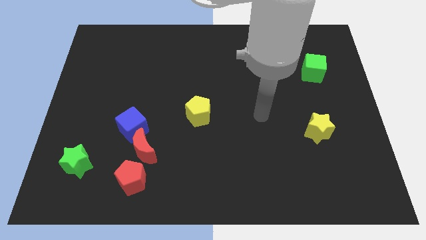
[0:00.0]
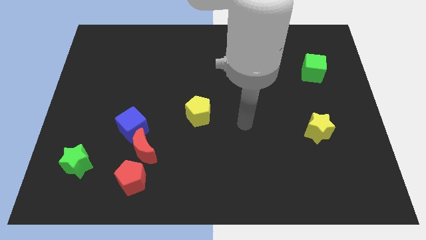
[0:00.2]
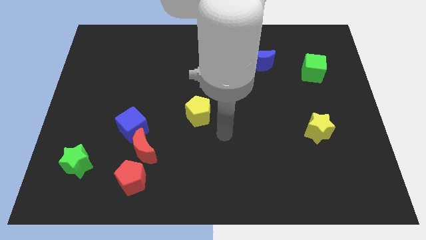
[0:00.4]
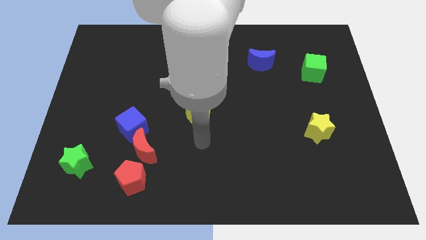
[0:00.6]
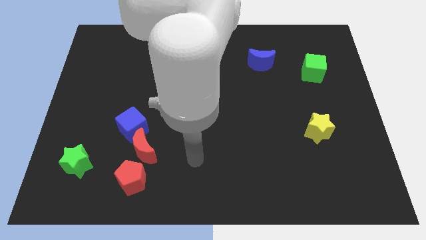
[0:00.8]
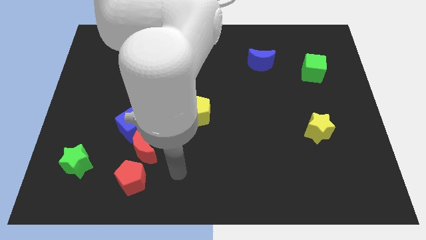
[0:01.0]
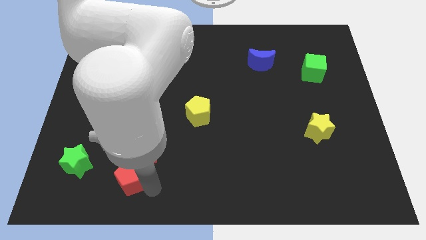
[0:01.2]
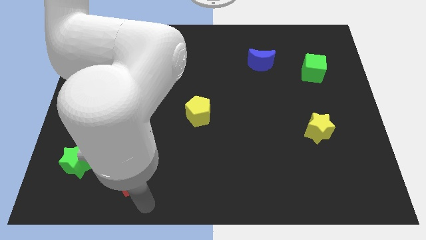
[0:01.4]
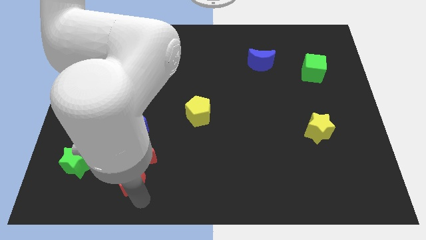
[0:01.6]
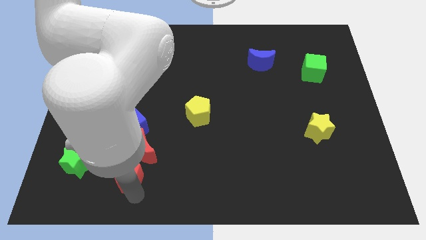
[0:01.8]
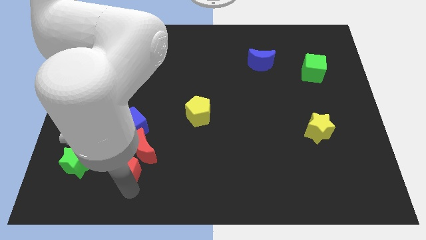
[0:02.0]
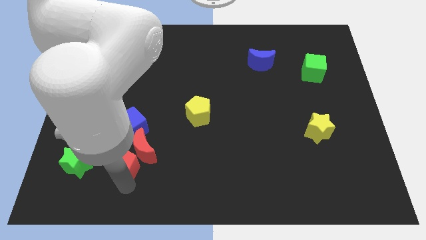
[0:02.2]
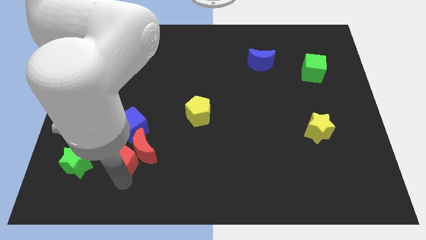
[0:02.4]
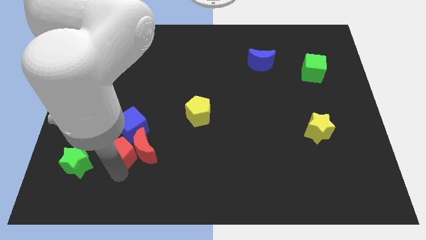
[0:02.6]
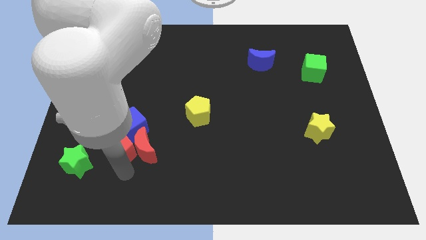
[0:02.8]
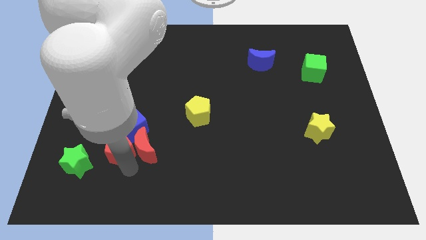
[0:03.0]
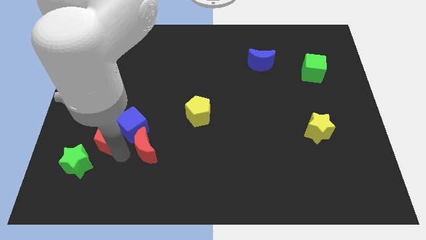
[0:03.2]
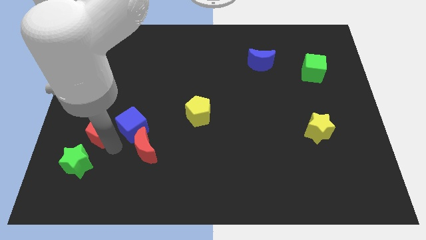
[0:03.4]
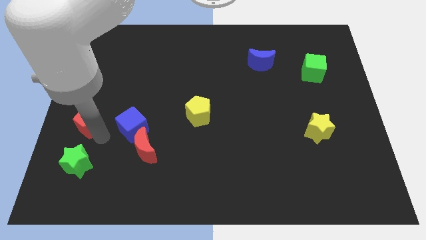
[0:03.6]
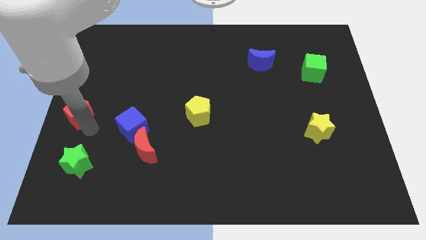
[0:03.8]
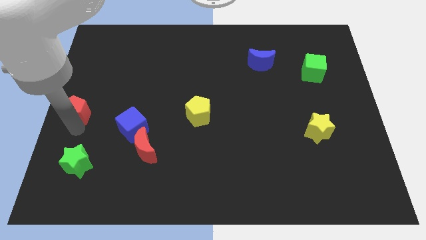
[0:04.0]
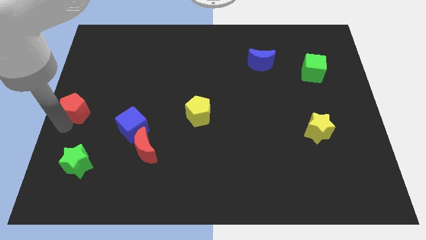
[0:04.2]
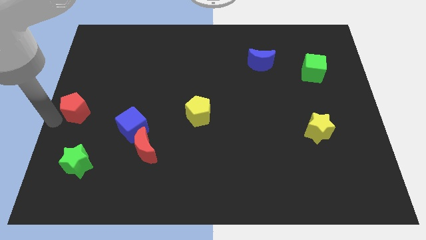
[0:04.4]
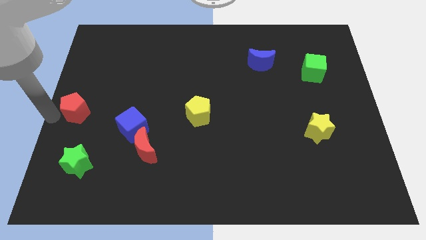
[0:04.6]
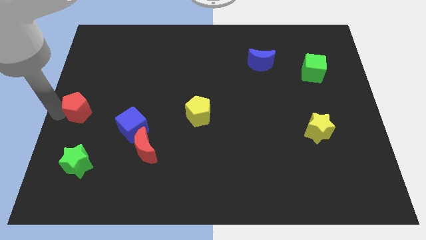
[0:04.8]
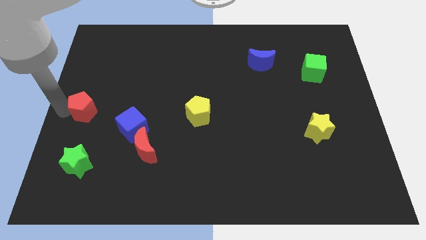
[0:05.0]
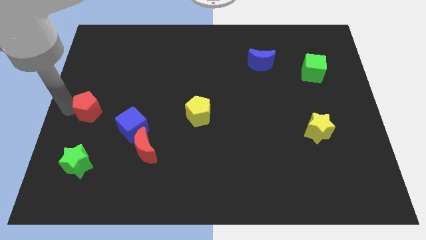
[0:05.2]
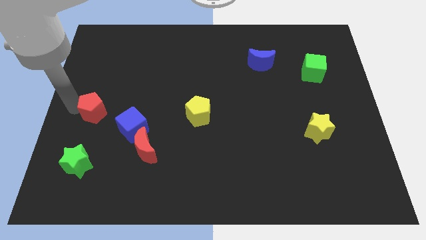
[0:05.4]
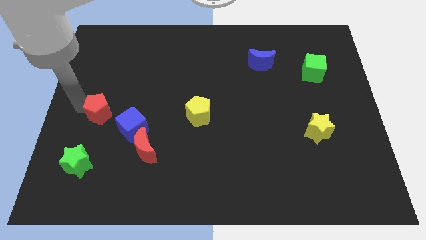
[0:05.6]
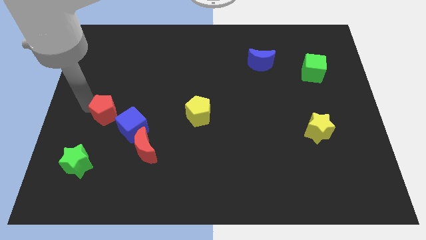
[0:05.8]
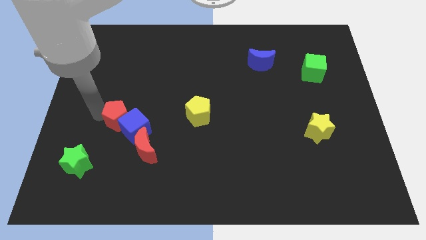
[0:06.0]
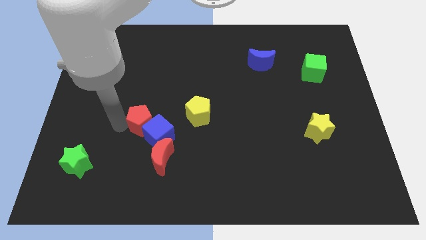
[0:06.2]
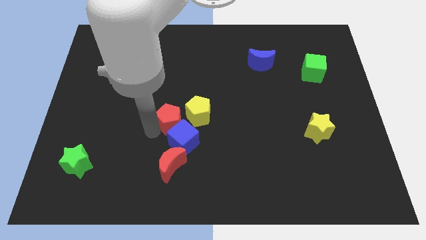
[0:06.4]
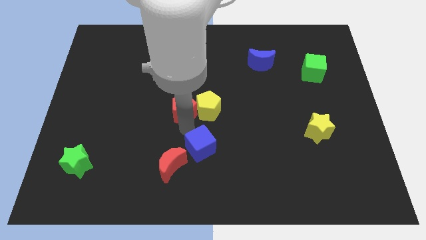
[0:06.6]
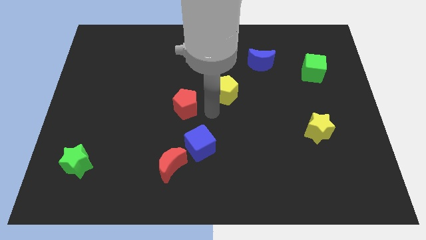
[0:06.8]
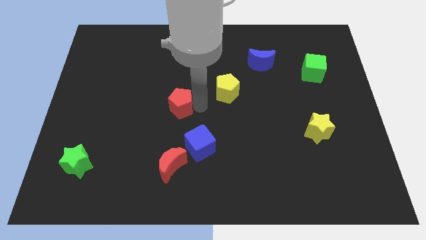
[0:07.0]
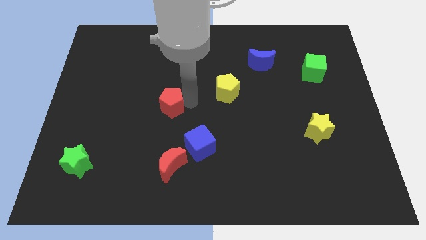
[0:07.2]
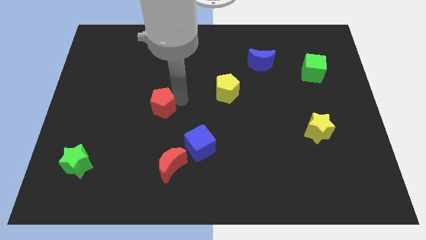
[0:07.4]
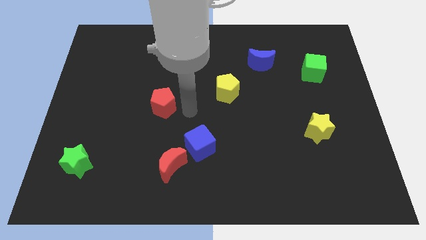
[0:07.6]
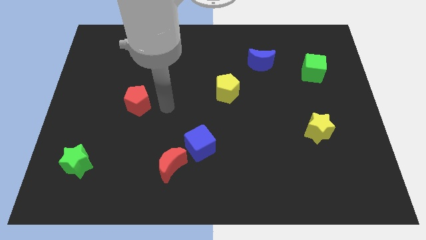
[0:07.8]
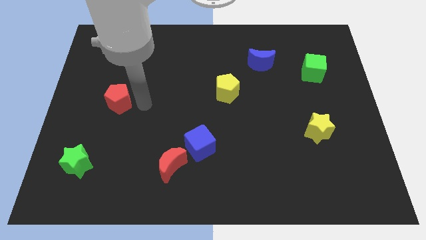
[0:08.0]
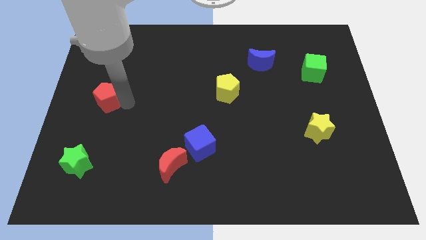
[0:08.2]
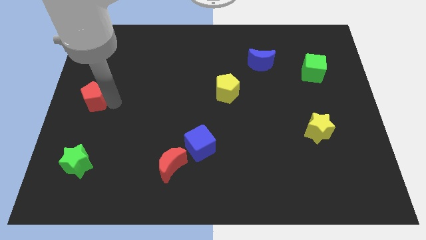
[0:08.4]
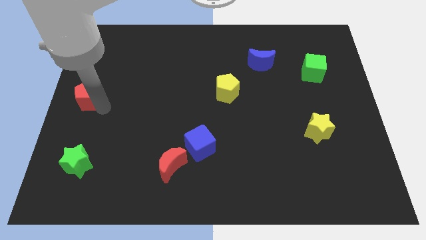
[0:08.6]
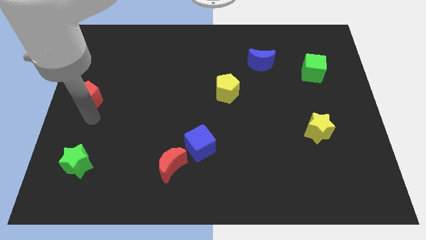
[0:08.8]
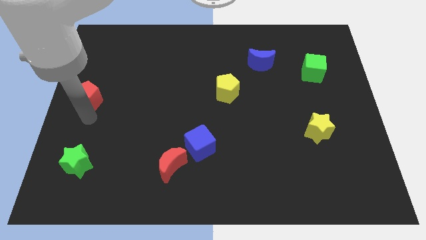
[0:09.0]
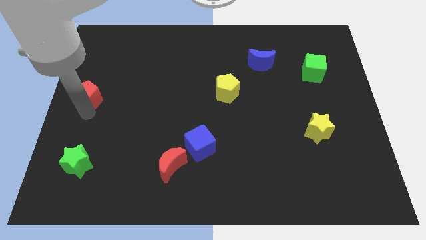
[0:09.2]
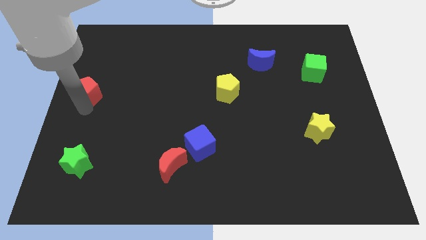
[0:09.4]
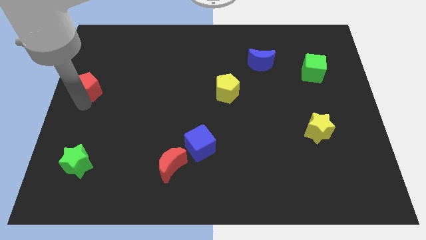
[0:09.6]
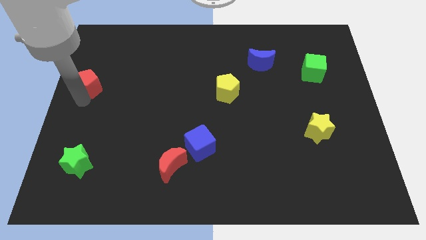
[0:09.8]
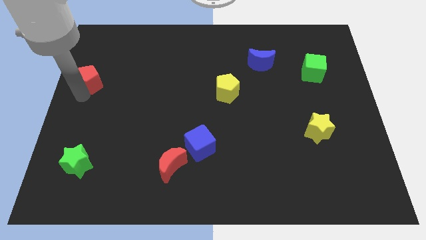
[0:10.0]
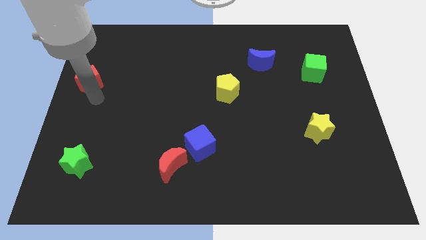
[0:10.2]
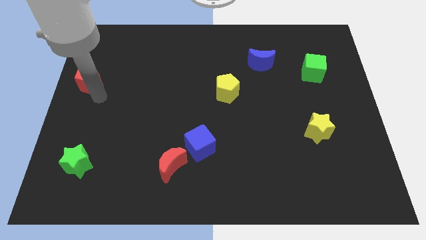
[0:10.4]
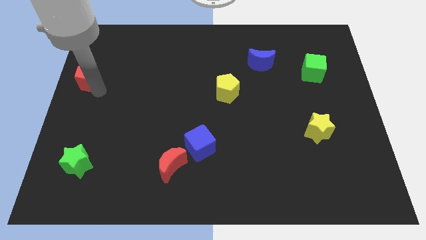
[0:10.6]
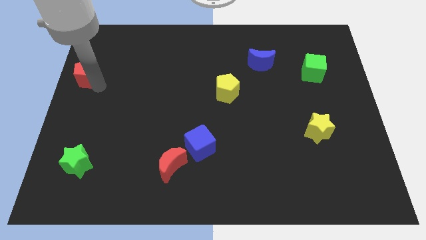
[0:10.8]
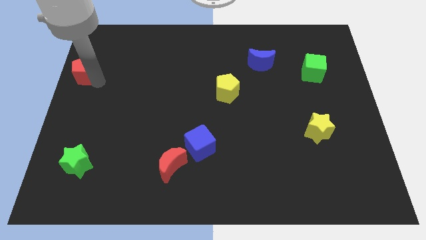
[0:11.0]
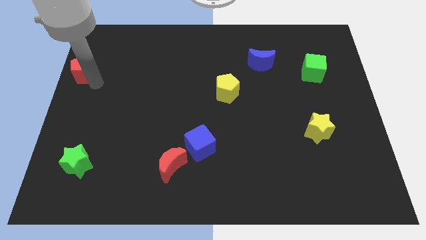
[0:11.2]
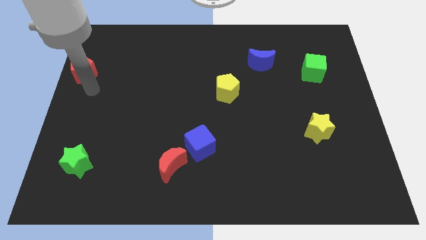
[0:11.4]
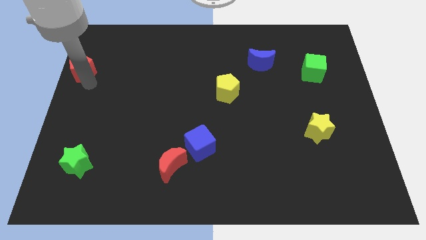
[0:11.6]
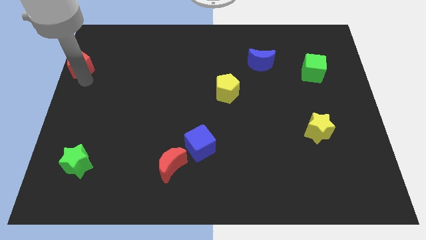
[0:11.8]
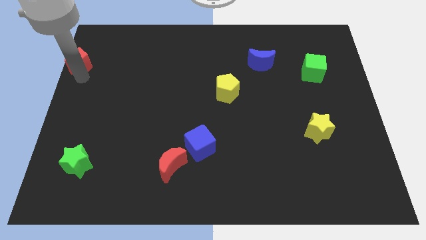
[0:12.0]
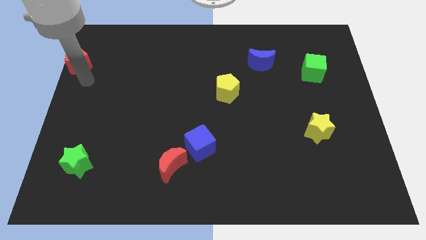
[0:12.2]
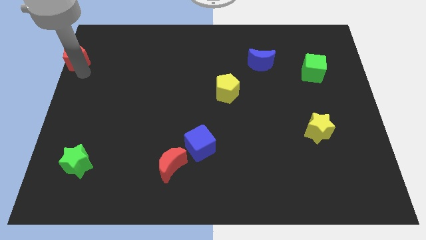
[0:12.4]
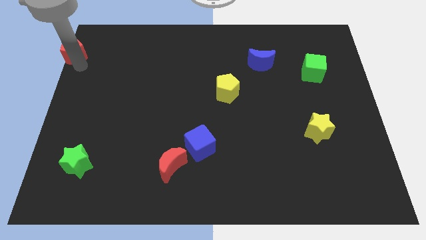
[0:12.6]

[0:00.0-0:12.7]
put the red pentagon to the top left of the board
